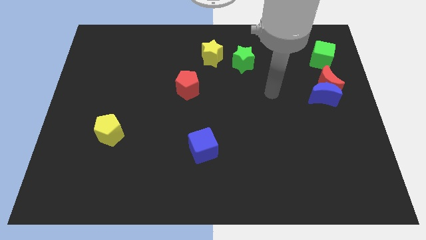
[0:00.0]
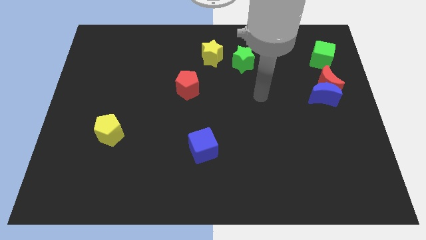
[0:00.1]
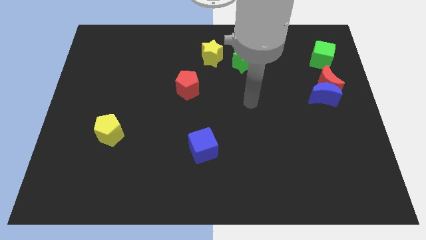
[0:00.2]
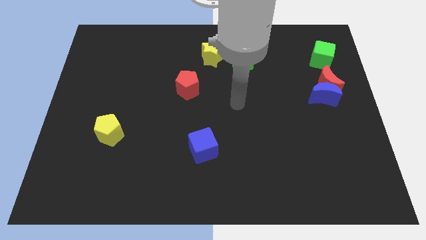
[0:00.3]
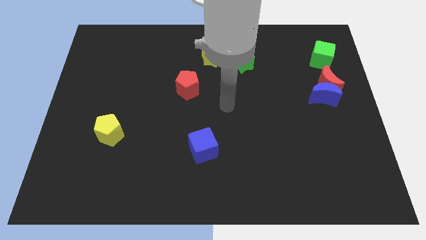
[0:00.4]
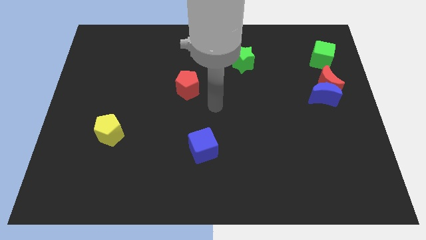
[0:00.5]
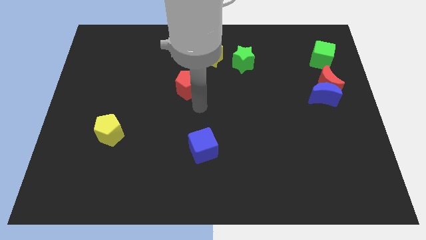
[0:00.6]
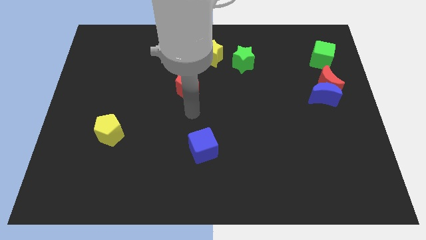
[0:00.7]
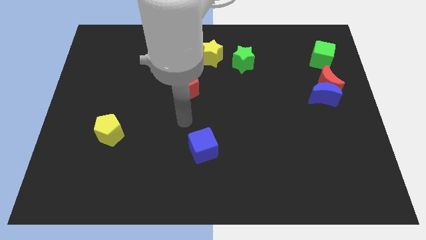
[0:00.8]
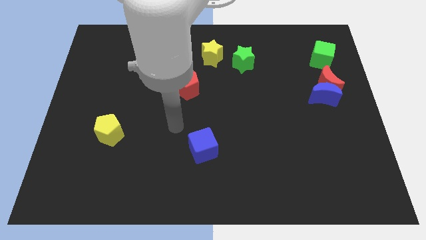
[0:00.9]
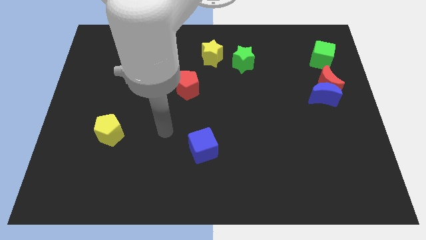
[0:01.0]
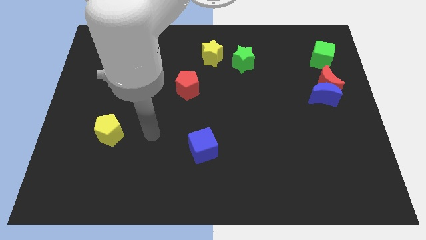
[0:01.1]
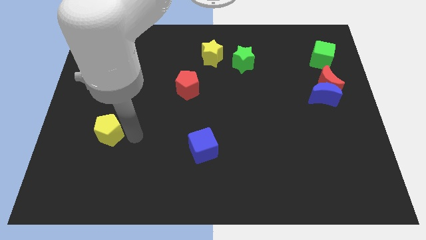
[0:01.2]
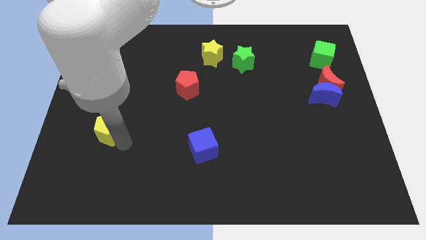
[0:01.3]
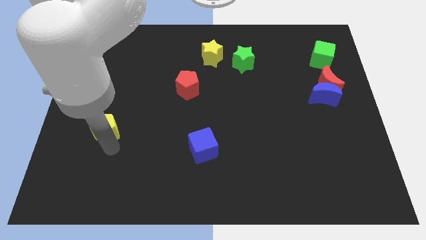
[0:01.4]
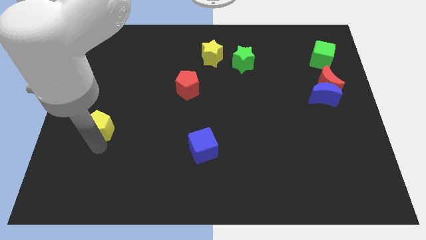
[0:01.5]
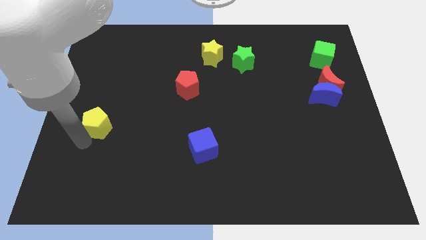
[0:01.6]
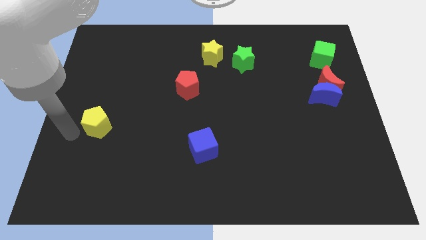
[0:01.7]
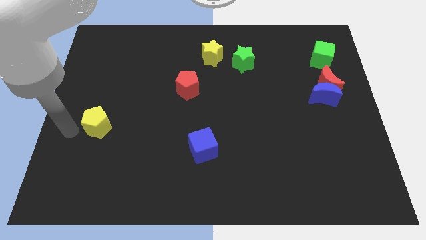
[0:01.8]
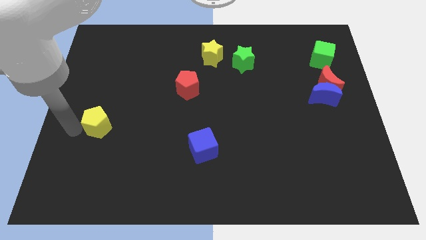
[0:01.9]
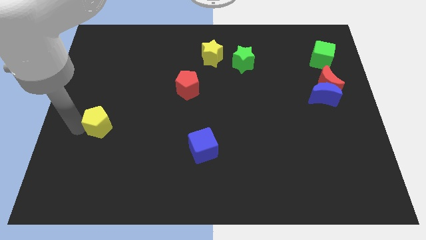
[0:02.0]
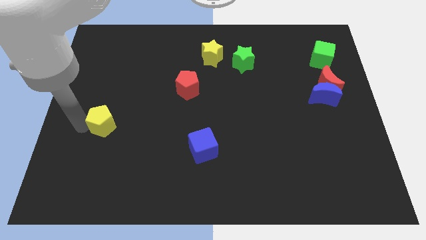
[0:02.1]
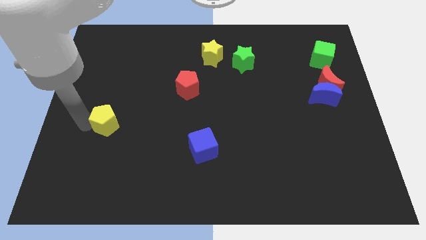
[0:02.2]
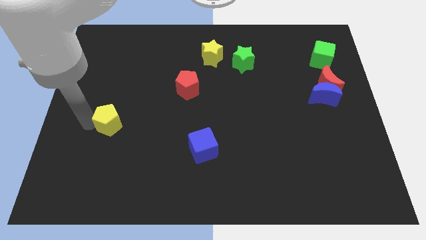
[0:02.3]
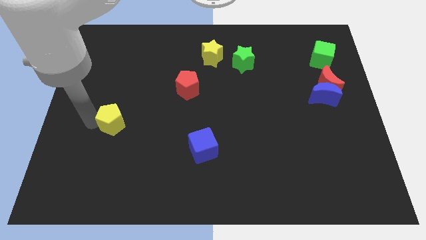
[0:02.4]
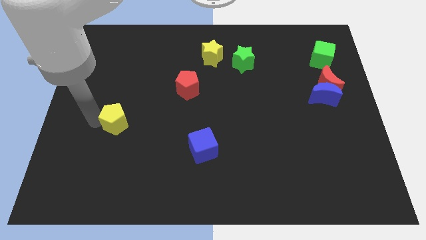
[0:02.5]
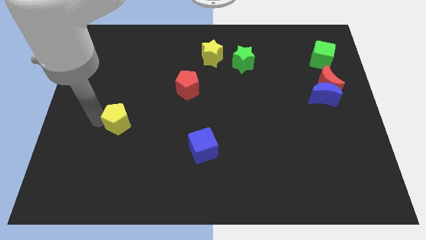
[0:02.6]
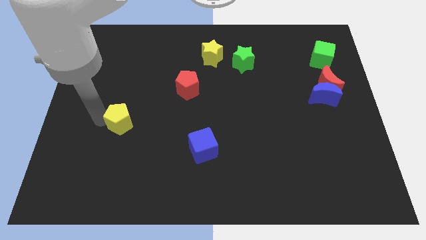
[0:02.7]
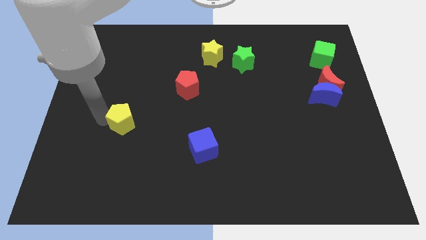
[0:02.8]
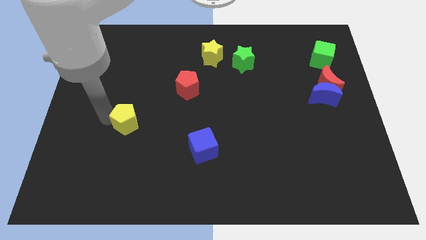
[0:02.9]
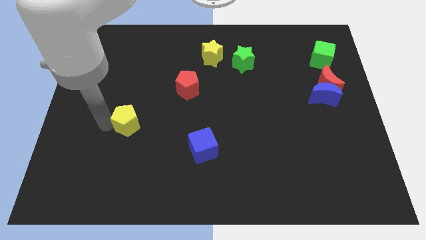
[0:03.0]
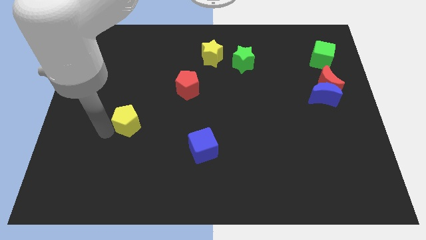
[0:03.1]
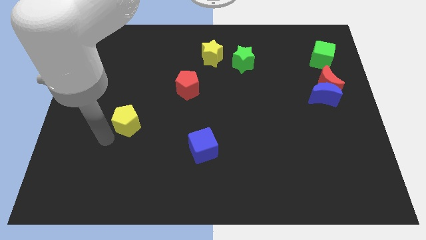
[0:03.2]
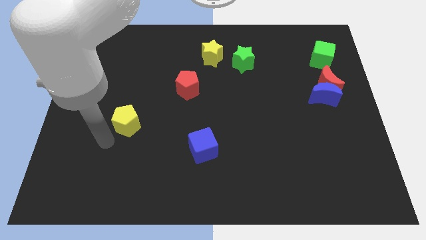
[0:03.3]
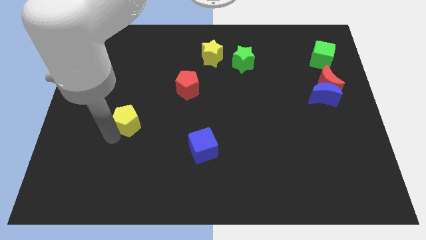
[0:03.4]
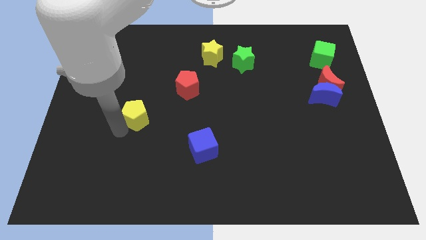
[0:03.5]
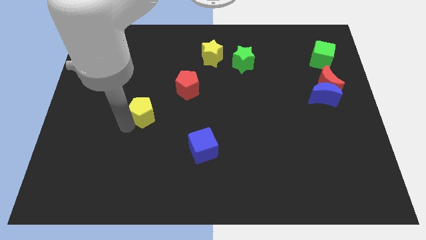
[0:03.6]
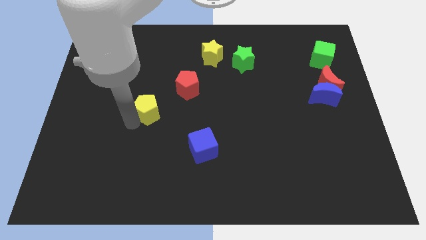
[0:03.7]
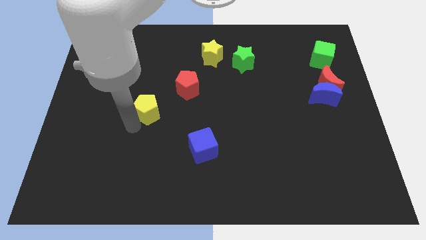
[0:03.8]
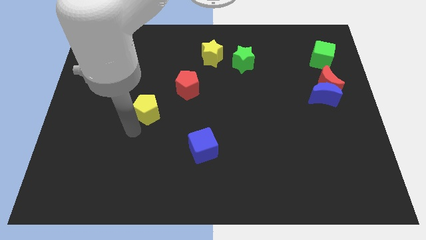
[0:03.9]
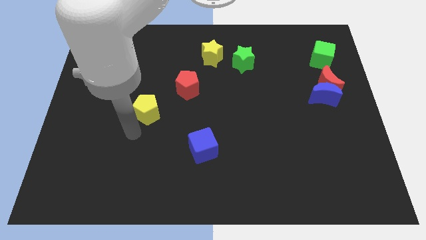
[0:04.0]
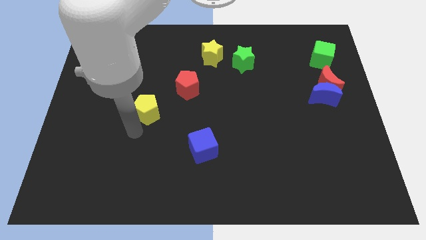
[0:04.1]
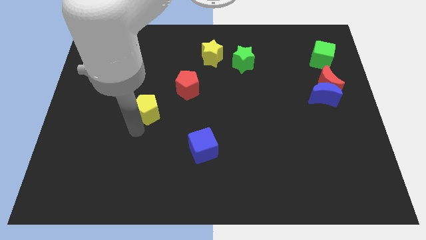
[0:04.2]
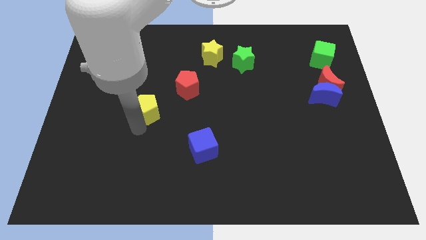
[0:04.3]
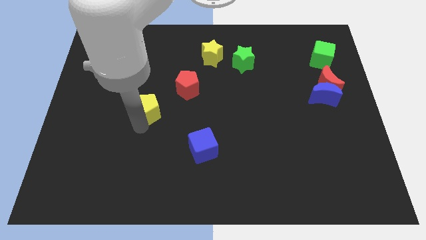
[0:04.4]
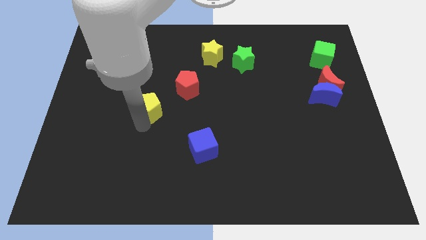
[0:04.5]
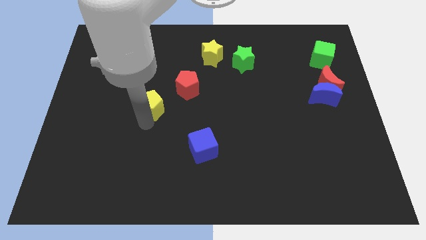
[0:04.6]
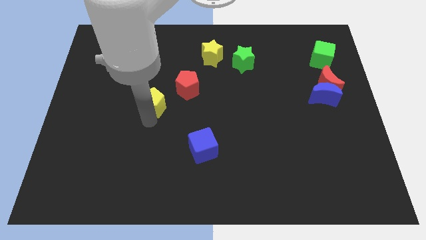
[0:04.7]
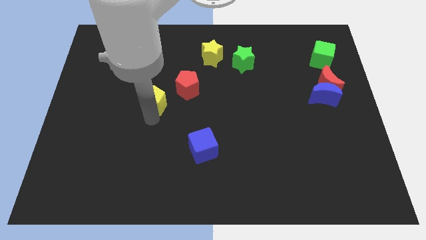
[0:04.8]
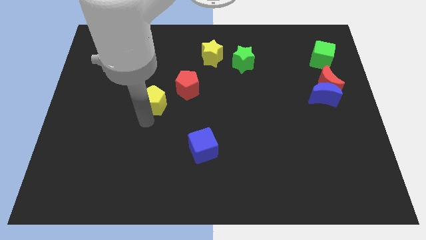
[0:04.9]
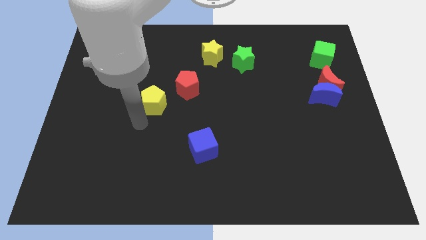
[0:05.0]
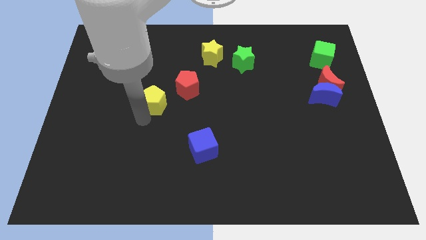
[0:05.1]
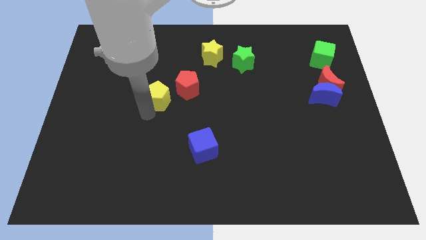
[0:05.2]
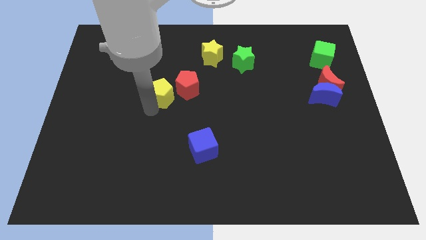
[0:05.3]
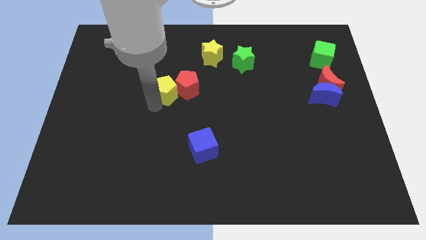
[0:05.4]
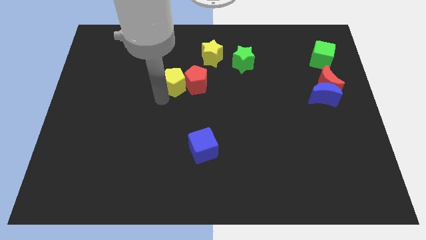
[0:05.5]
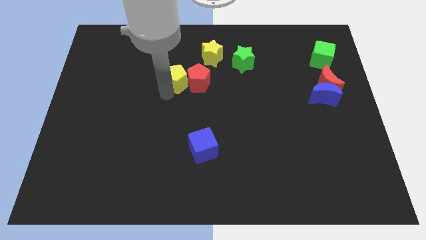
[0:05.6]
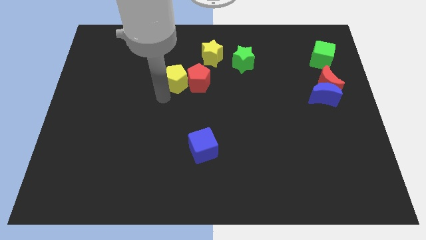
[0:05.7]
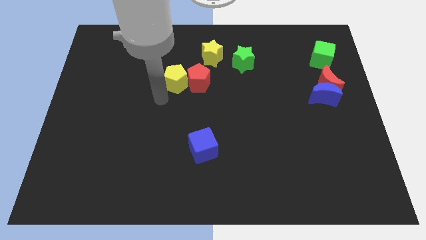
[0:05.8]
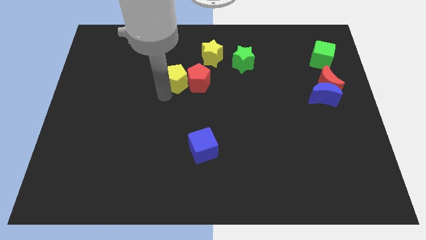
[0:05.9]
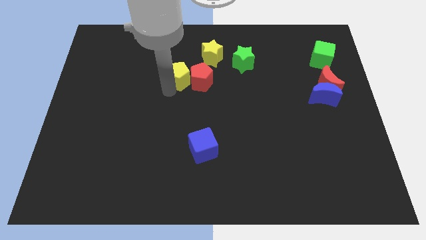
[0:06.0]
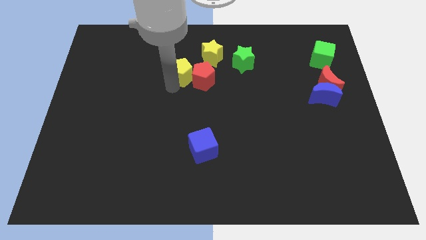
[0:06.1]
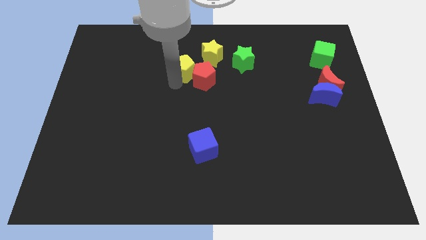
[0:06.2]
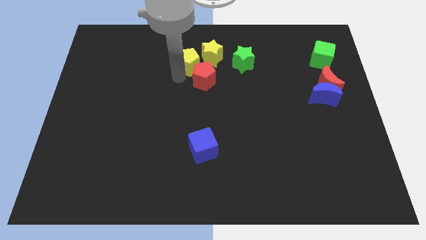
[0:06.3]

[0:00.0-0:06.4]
put the yellow pentagon to the yellow star
